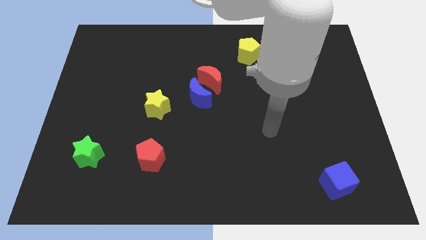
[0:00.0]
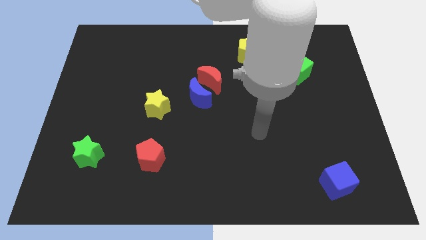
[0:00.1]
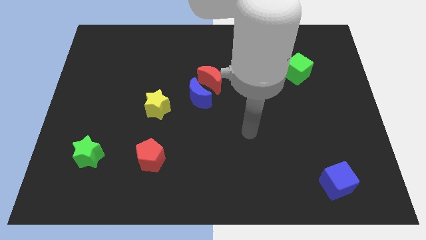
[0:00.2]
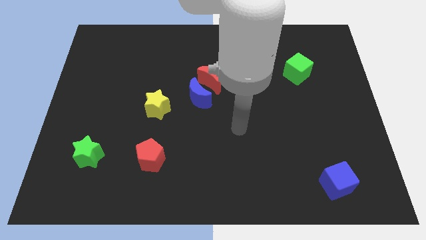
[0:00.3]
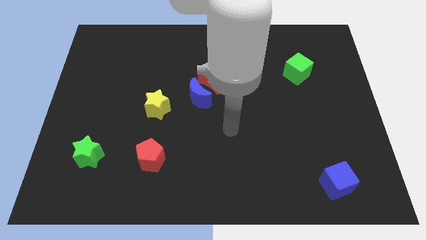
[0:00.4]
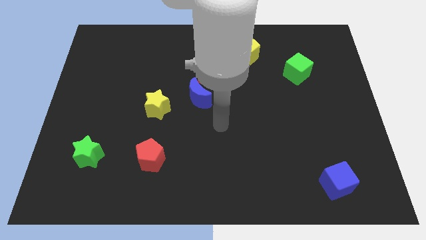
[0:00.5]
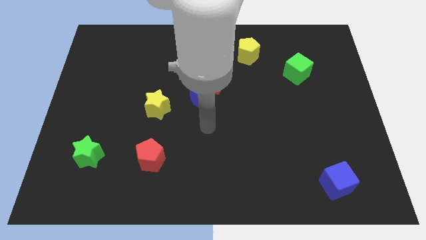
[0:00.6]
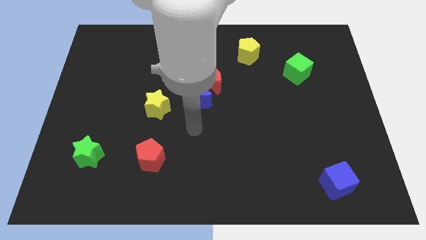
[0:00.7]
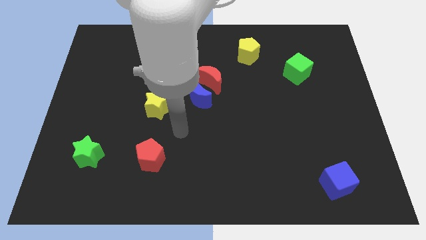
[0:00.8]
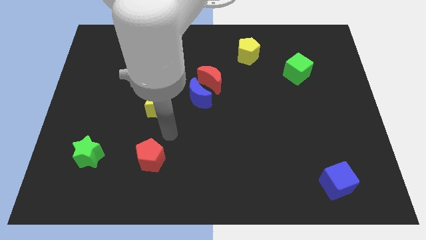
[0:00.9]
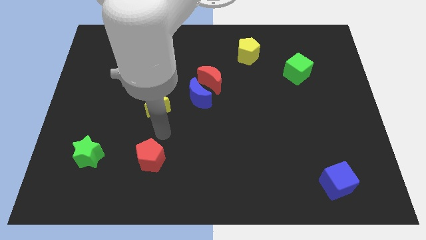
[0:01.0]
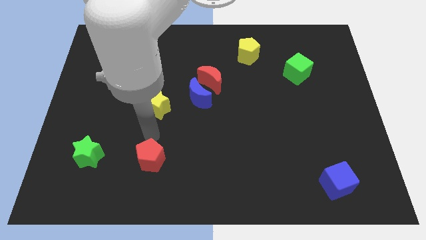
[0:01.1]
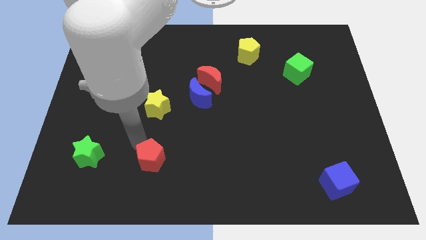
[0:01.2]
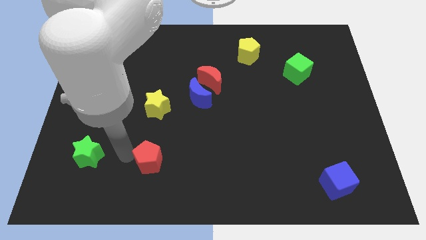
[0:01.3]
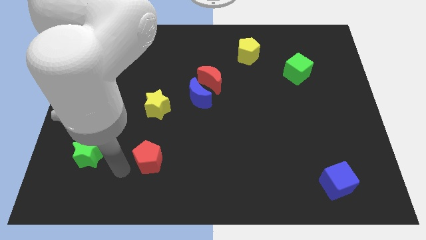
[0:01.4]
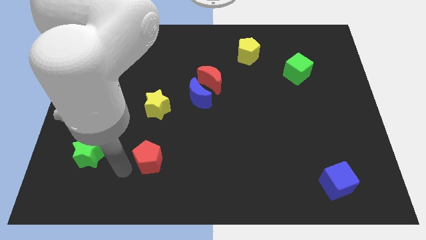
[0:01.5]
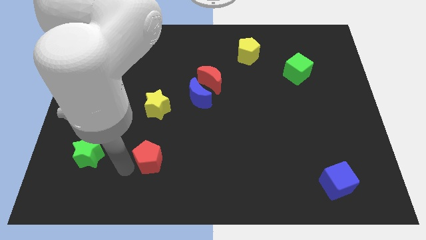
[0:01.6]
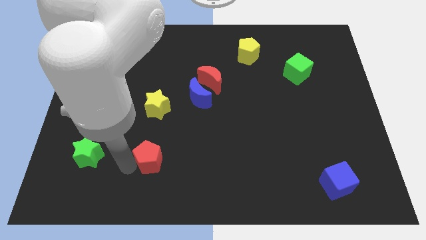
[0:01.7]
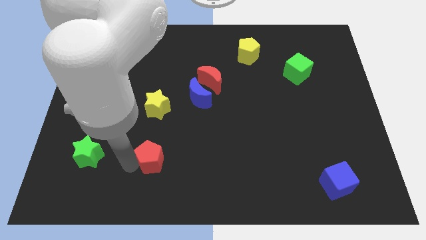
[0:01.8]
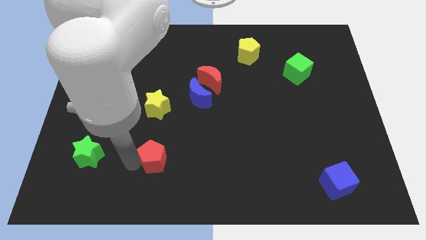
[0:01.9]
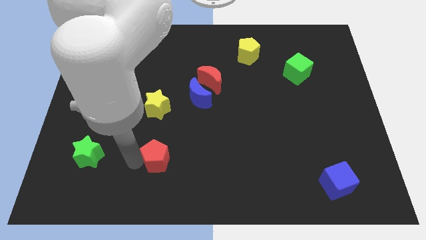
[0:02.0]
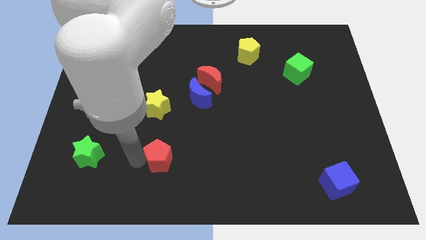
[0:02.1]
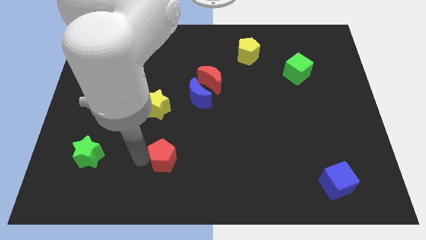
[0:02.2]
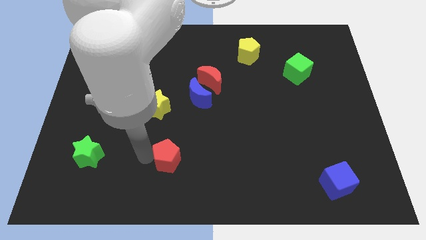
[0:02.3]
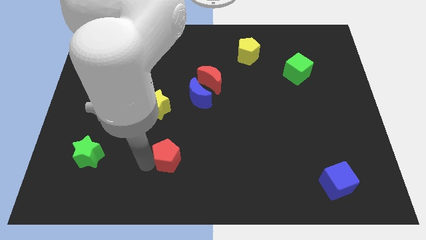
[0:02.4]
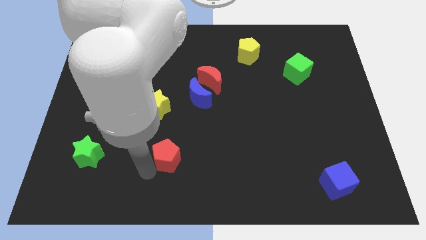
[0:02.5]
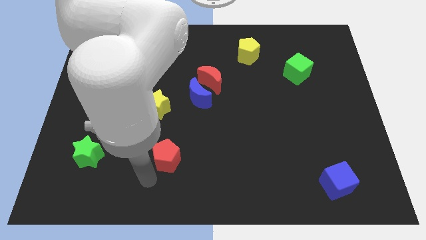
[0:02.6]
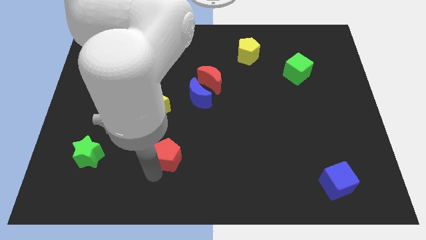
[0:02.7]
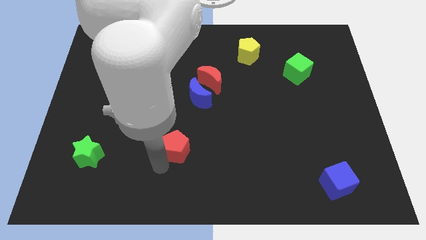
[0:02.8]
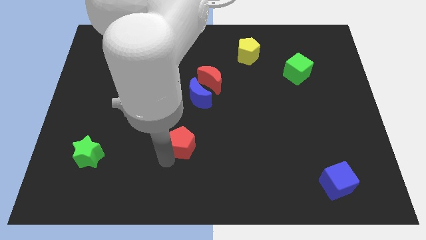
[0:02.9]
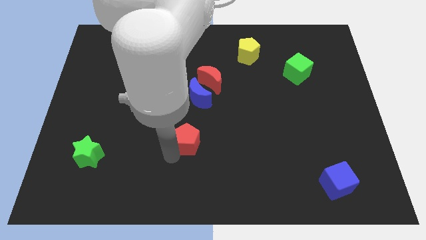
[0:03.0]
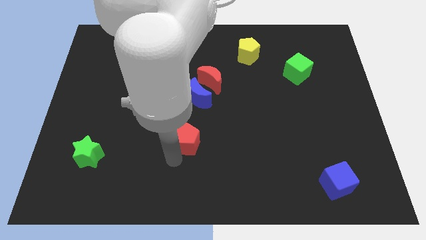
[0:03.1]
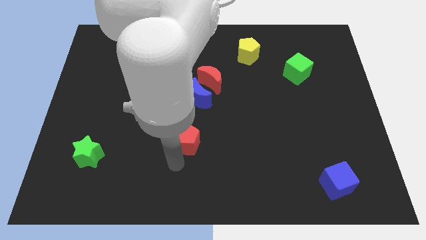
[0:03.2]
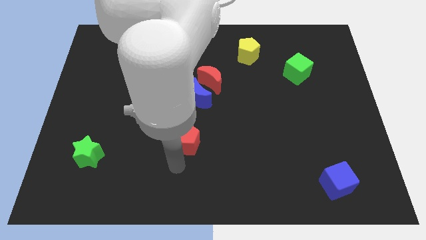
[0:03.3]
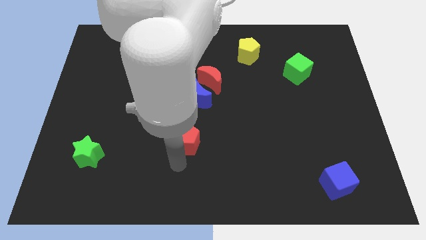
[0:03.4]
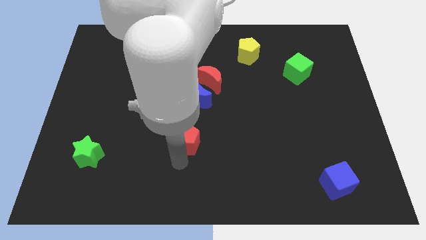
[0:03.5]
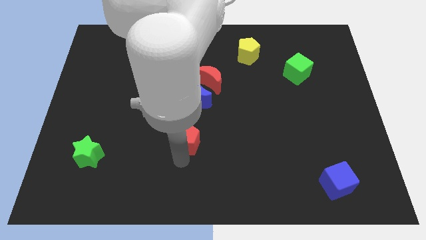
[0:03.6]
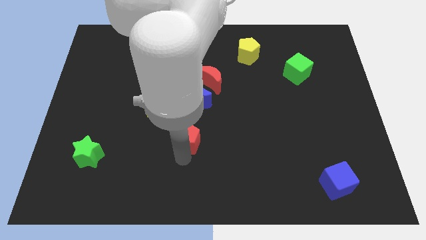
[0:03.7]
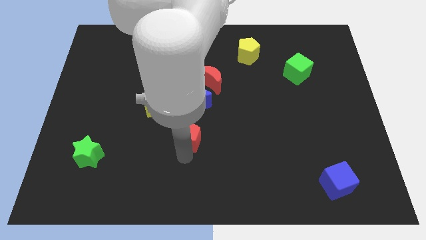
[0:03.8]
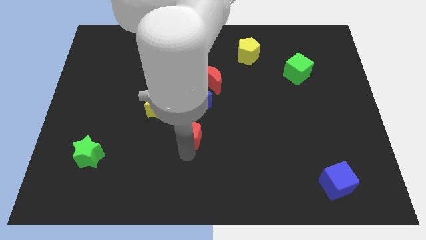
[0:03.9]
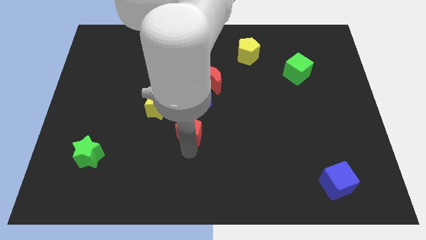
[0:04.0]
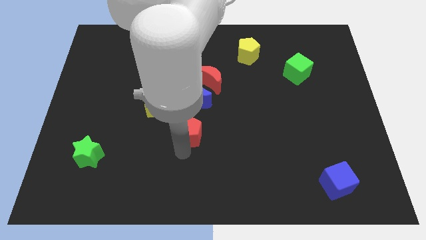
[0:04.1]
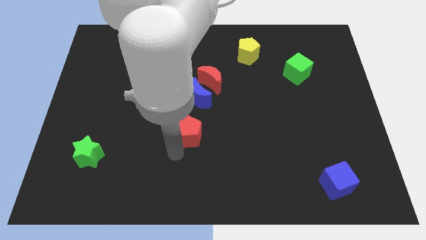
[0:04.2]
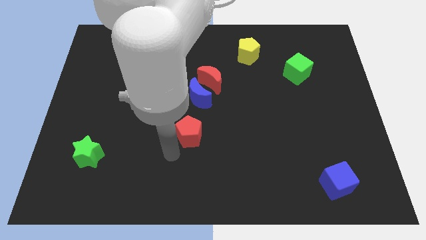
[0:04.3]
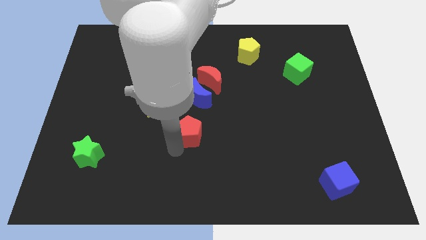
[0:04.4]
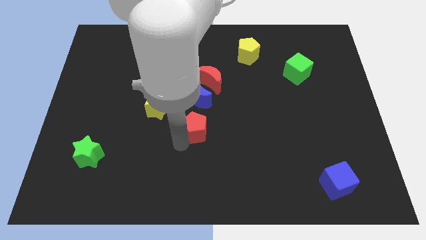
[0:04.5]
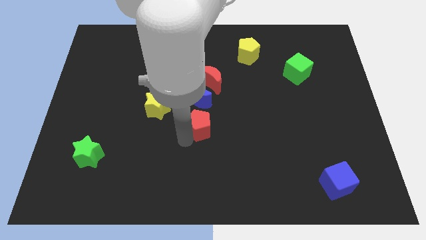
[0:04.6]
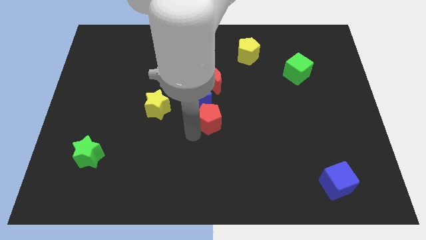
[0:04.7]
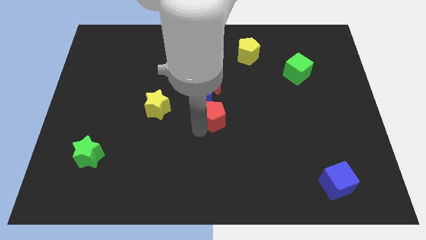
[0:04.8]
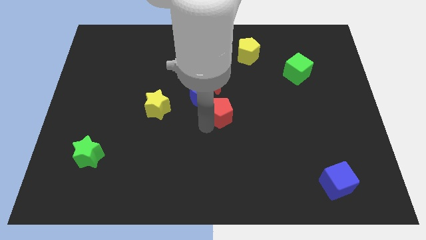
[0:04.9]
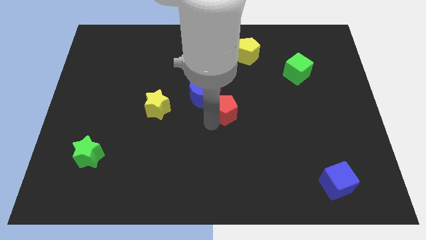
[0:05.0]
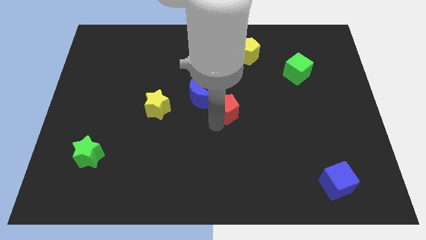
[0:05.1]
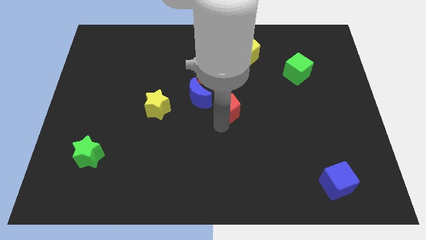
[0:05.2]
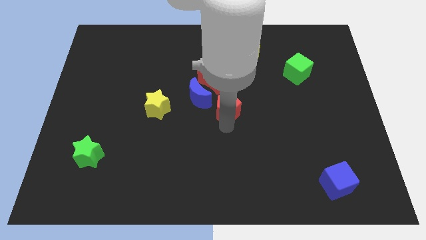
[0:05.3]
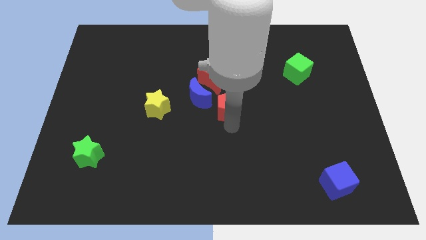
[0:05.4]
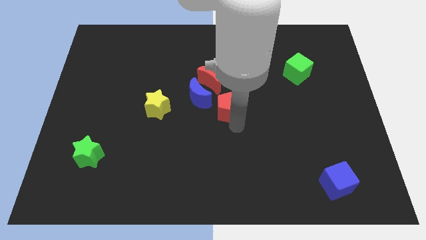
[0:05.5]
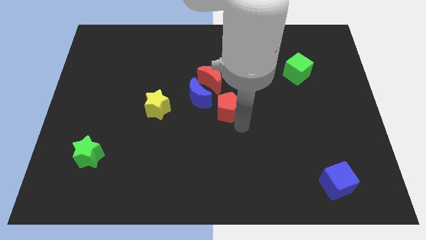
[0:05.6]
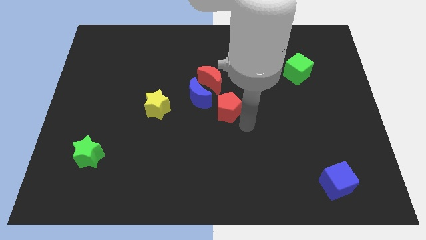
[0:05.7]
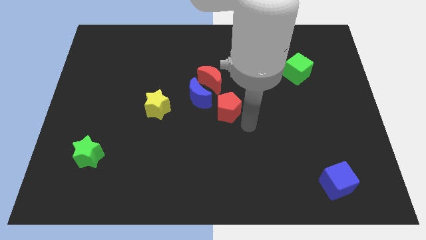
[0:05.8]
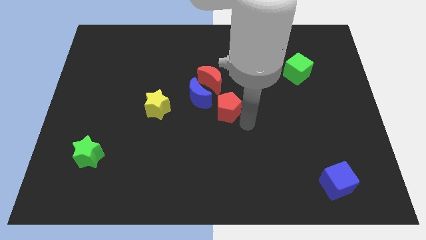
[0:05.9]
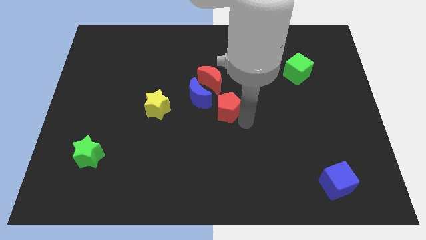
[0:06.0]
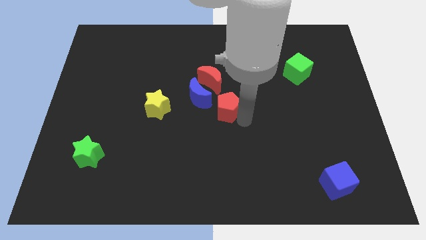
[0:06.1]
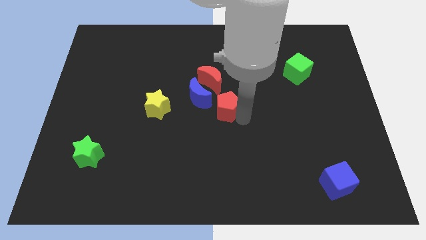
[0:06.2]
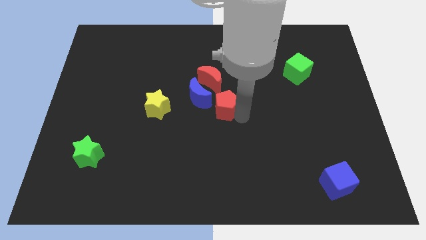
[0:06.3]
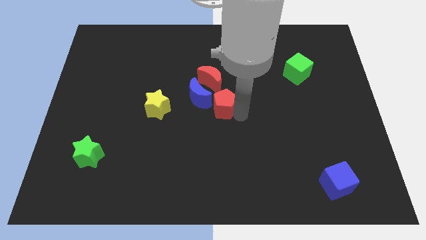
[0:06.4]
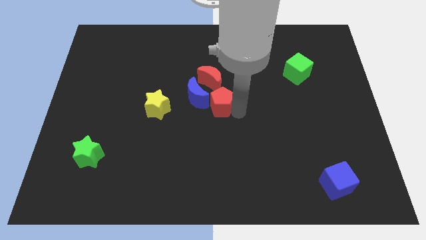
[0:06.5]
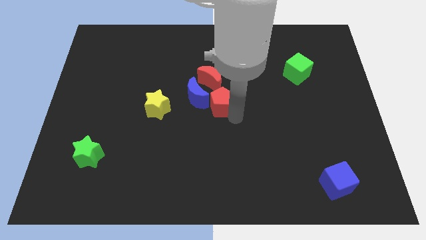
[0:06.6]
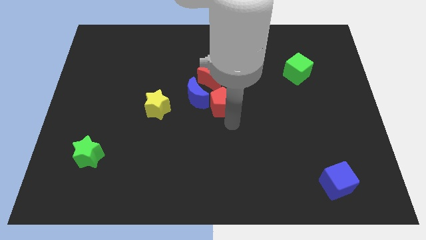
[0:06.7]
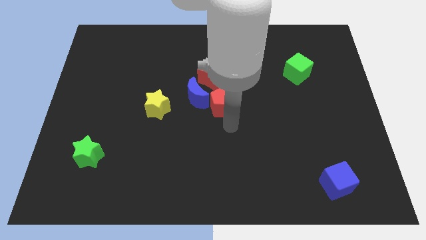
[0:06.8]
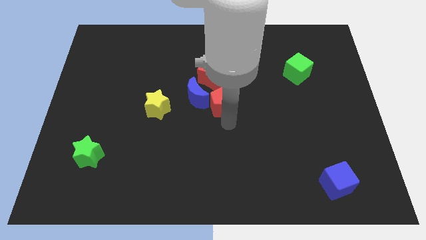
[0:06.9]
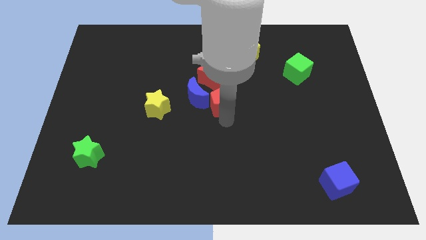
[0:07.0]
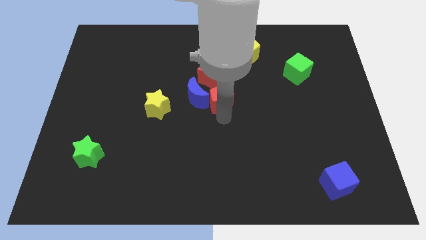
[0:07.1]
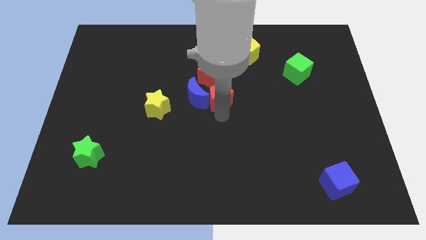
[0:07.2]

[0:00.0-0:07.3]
push the red pentagon to the red moon
